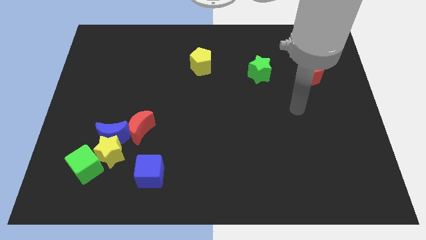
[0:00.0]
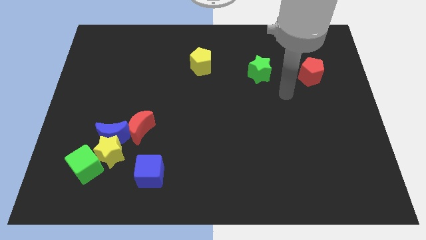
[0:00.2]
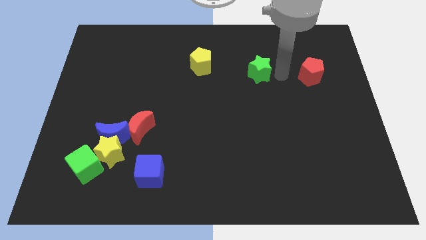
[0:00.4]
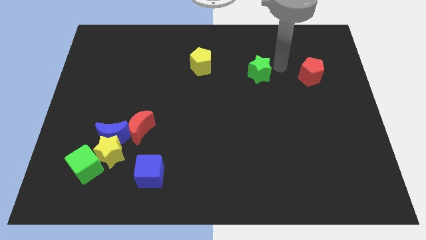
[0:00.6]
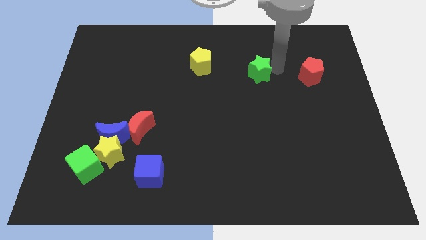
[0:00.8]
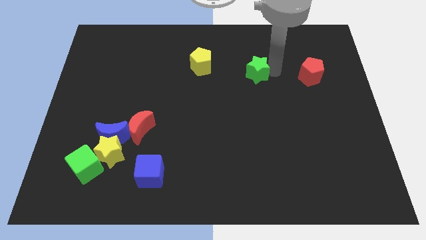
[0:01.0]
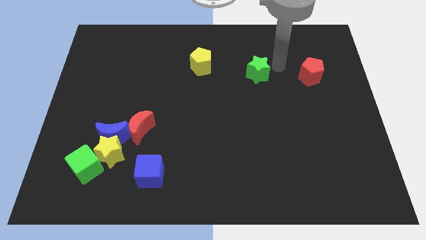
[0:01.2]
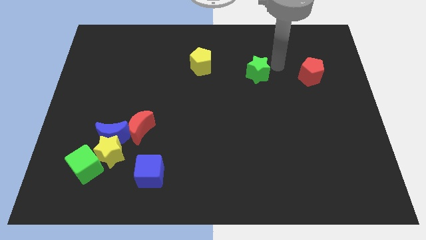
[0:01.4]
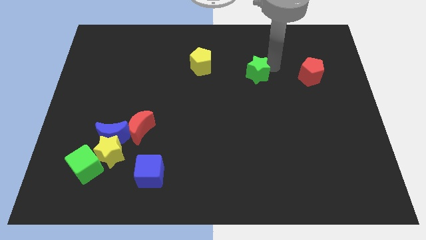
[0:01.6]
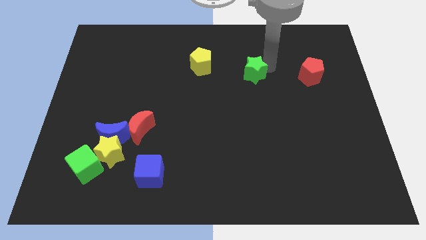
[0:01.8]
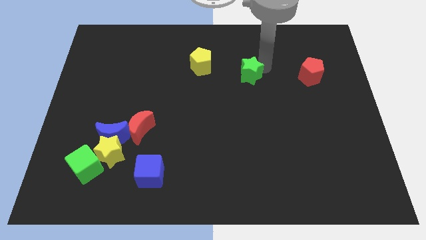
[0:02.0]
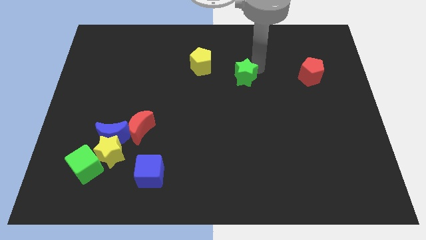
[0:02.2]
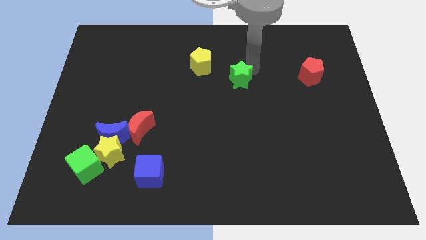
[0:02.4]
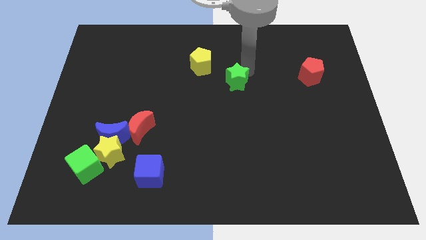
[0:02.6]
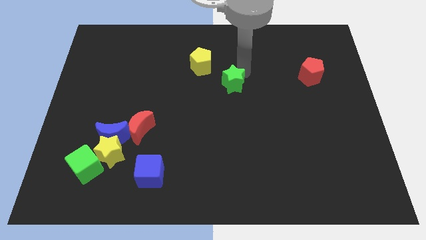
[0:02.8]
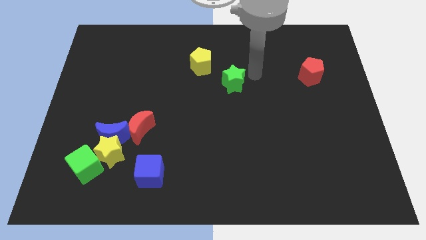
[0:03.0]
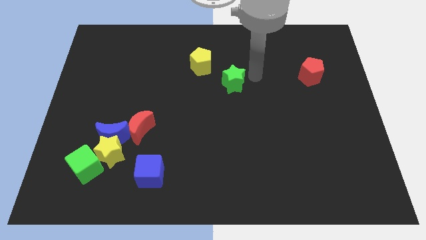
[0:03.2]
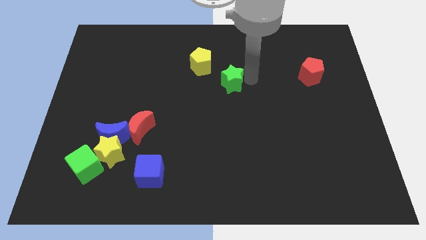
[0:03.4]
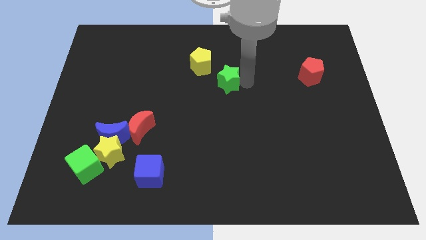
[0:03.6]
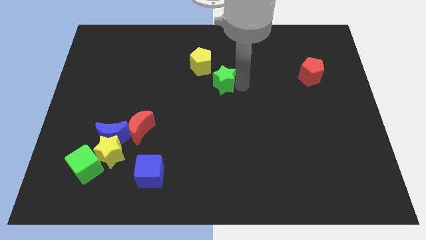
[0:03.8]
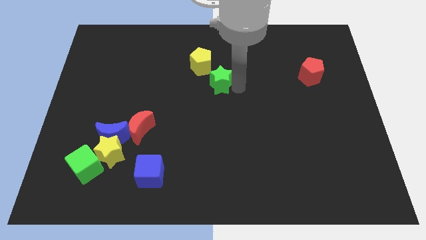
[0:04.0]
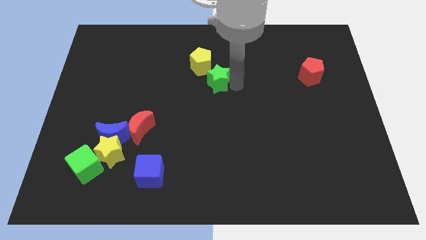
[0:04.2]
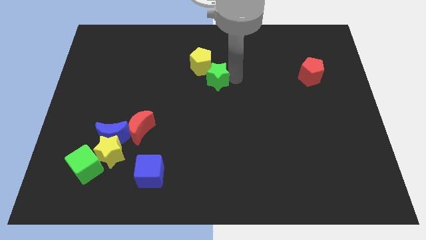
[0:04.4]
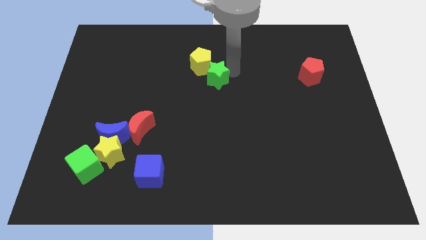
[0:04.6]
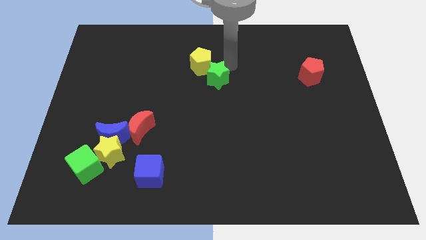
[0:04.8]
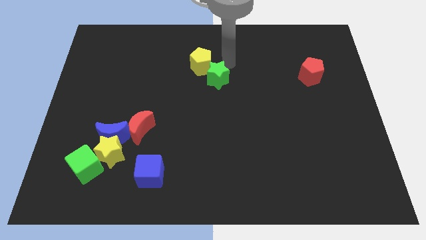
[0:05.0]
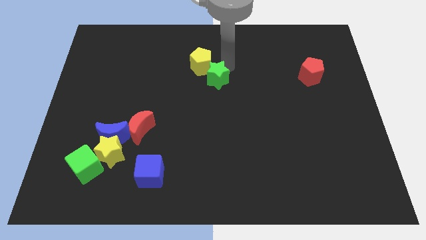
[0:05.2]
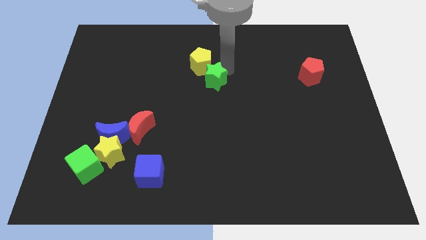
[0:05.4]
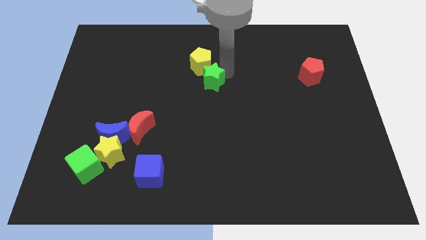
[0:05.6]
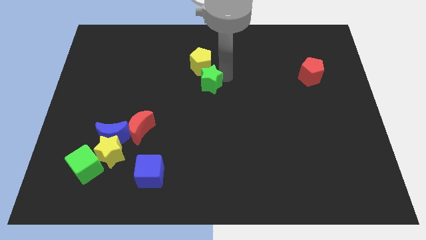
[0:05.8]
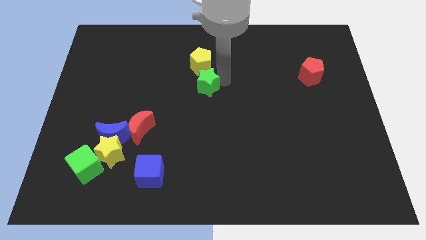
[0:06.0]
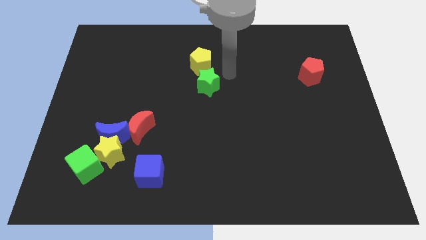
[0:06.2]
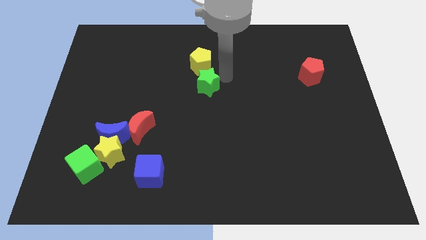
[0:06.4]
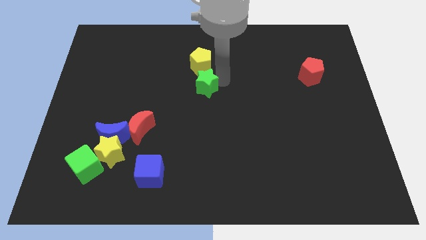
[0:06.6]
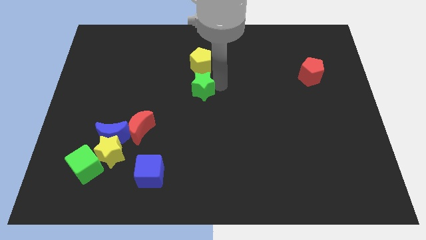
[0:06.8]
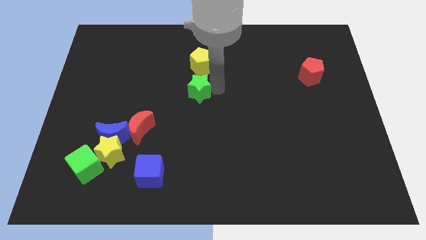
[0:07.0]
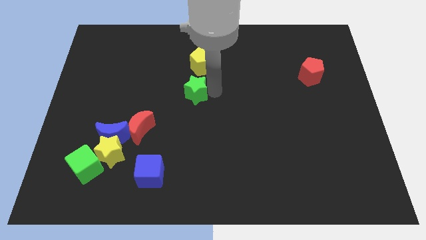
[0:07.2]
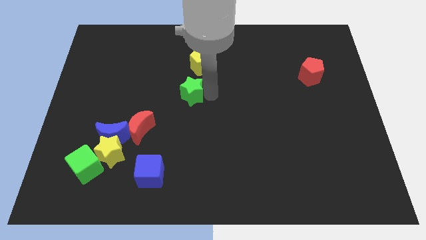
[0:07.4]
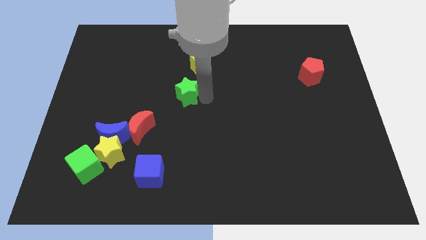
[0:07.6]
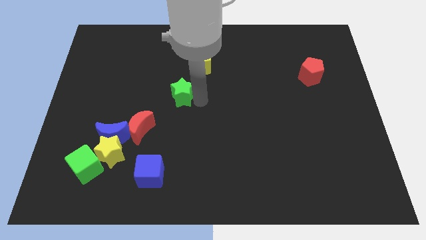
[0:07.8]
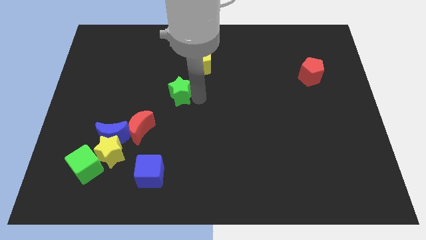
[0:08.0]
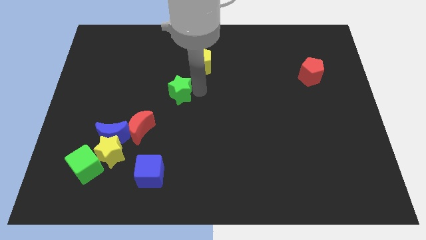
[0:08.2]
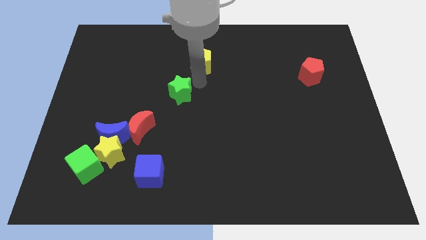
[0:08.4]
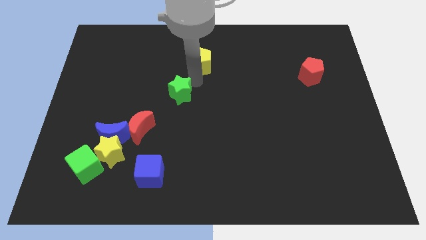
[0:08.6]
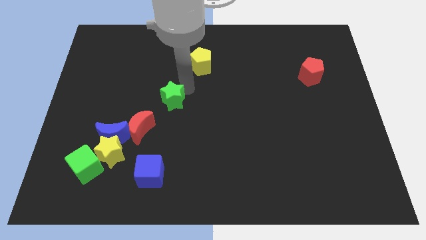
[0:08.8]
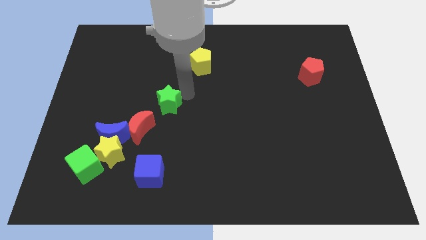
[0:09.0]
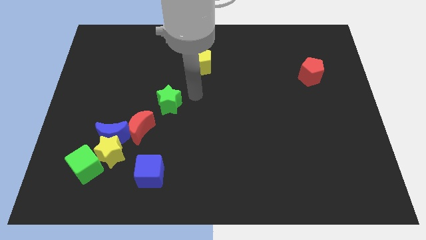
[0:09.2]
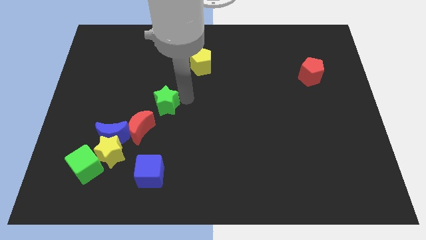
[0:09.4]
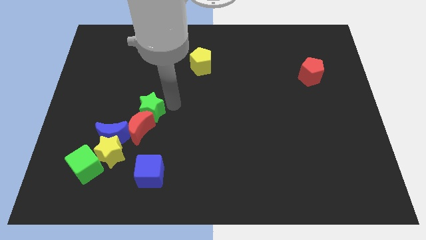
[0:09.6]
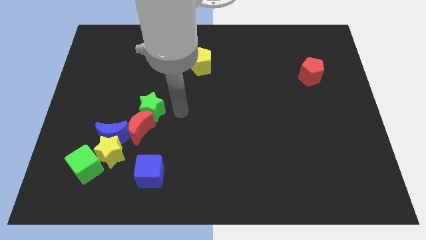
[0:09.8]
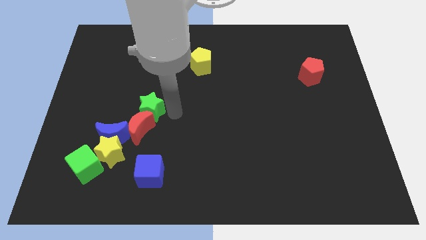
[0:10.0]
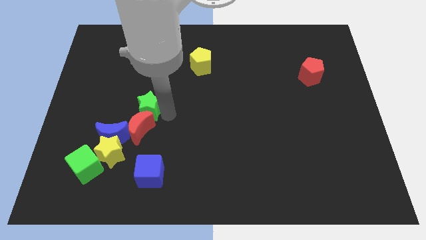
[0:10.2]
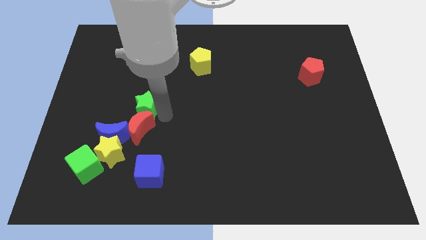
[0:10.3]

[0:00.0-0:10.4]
put the green star to the top left of the red moon

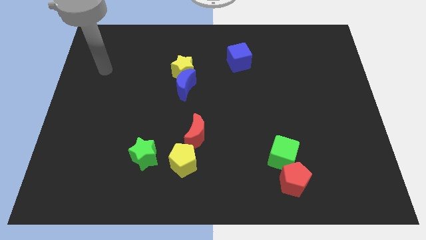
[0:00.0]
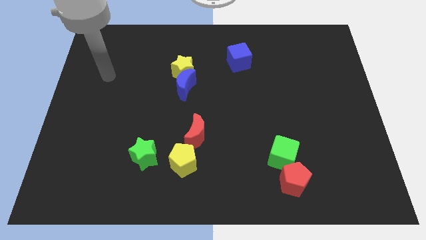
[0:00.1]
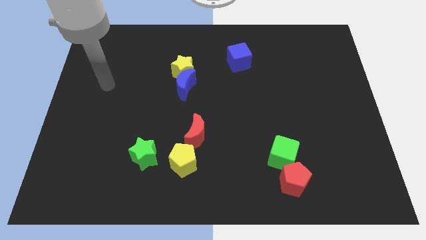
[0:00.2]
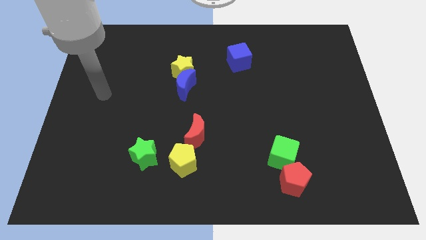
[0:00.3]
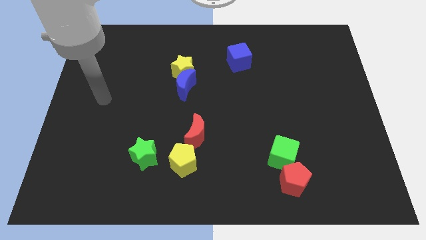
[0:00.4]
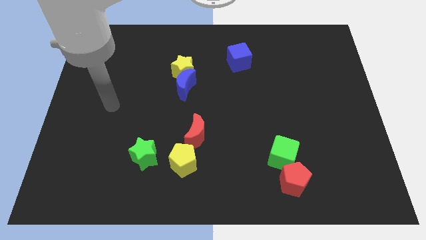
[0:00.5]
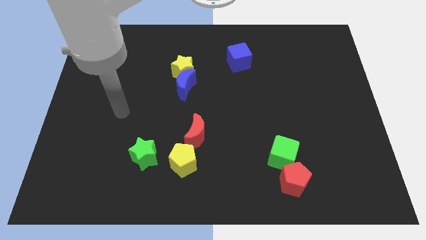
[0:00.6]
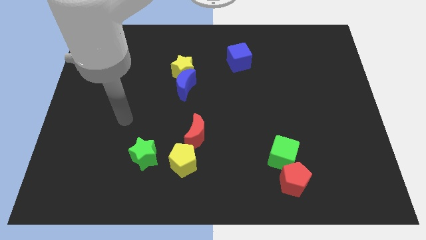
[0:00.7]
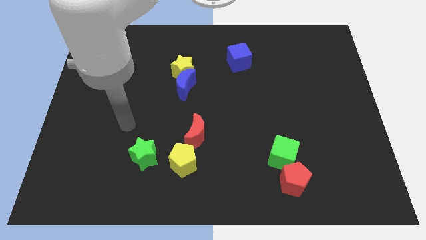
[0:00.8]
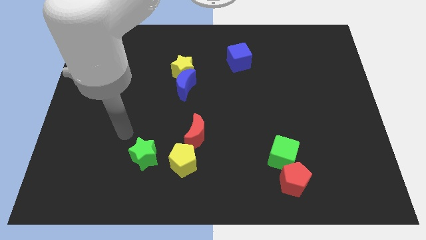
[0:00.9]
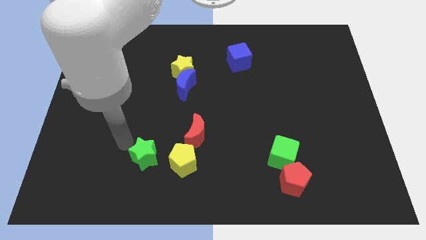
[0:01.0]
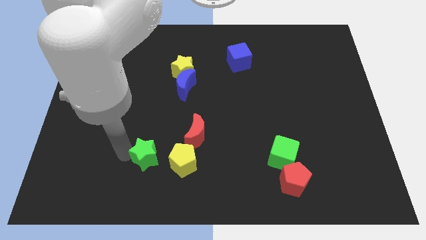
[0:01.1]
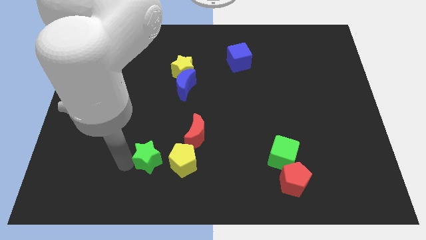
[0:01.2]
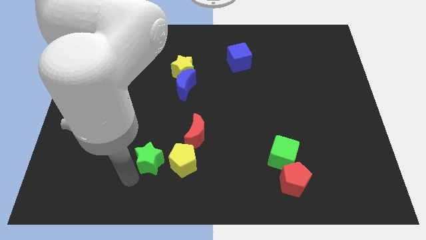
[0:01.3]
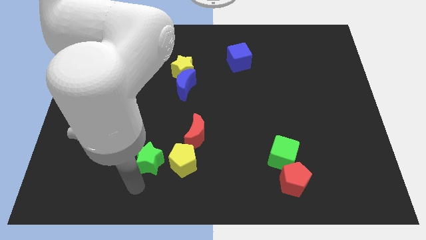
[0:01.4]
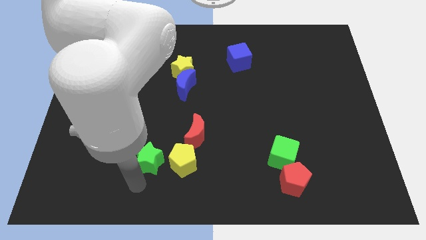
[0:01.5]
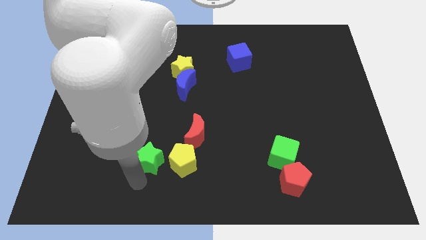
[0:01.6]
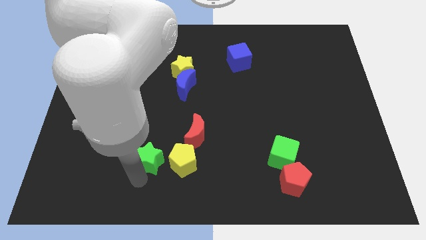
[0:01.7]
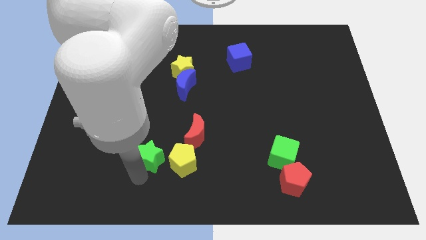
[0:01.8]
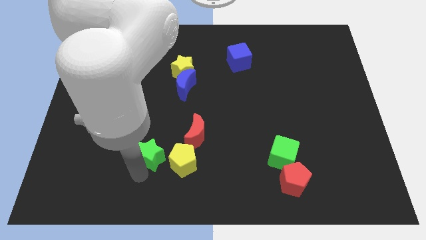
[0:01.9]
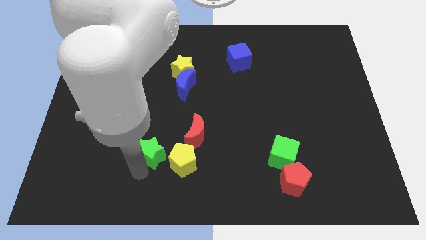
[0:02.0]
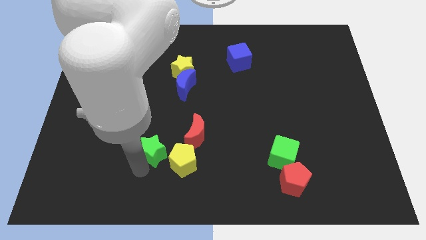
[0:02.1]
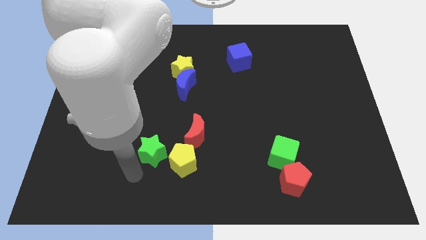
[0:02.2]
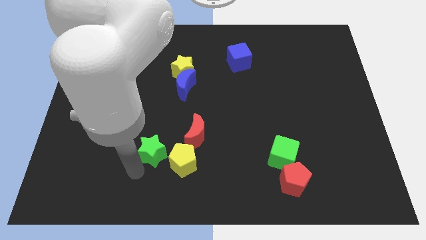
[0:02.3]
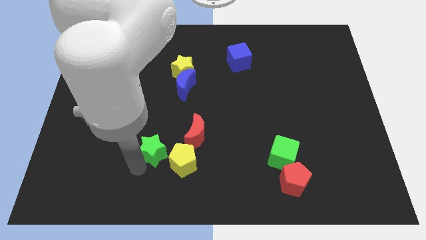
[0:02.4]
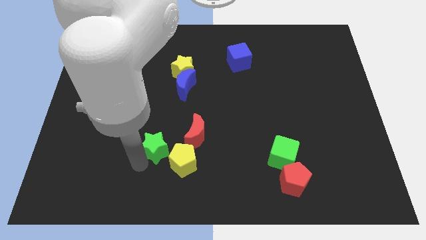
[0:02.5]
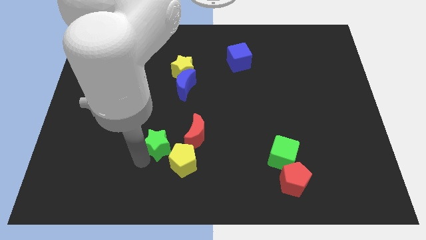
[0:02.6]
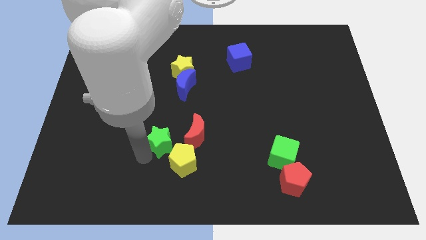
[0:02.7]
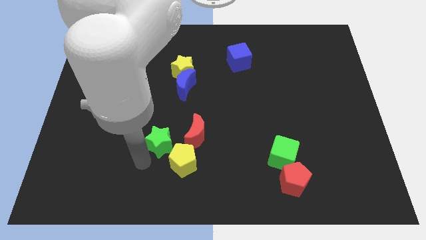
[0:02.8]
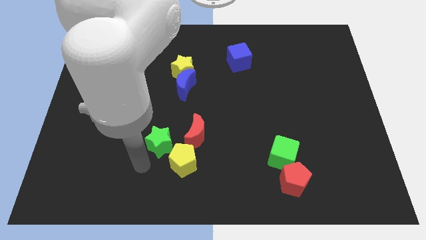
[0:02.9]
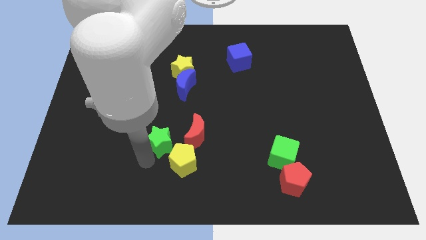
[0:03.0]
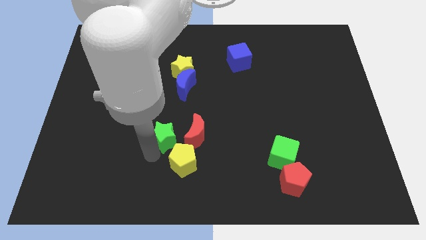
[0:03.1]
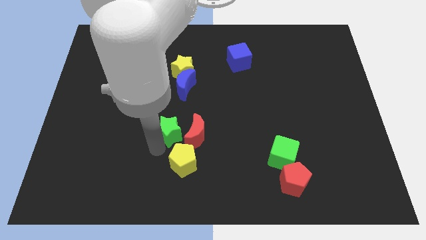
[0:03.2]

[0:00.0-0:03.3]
slide the green star to the bottom of the blue moon
